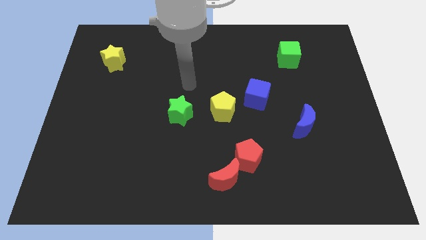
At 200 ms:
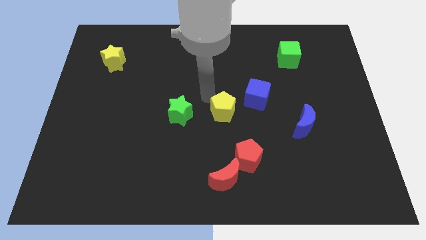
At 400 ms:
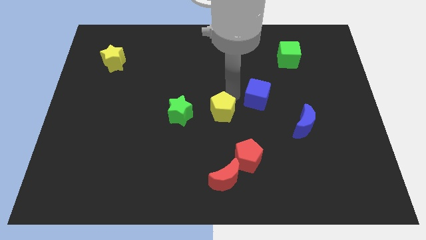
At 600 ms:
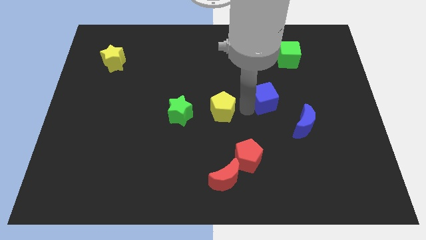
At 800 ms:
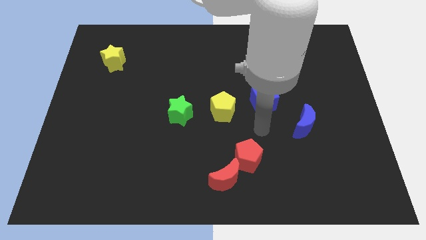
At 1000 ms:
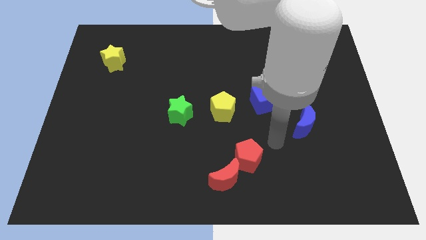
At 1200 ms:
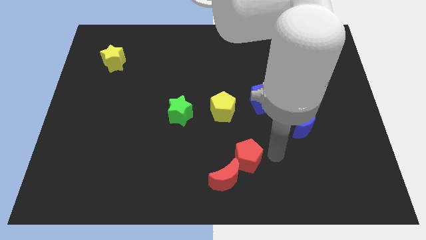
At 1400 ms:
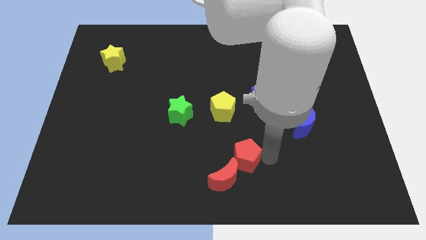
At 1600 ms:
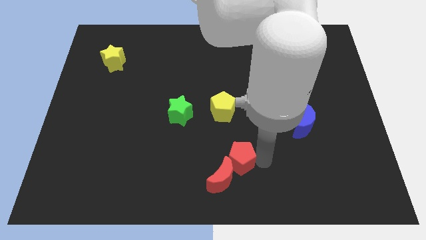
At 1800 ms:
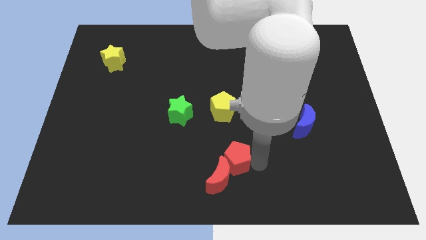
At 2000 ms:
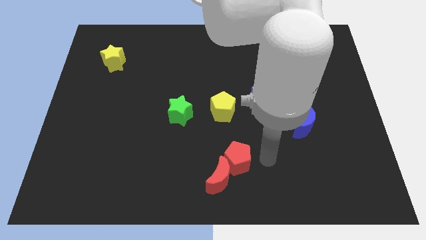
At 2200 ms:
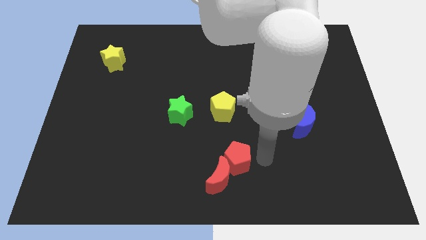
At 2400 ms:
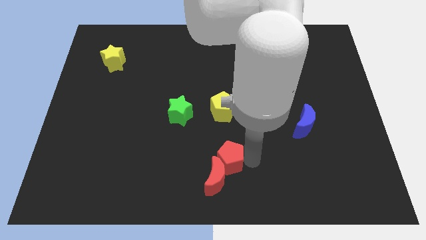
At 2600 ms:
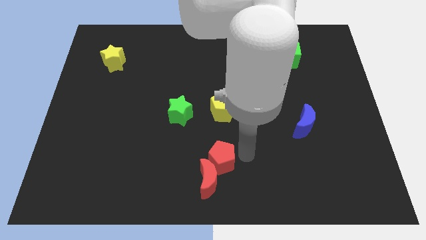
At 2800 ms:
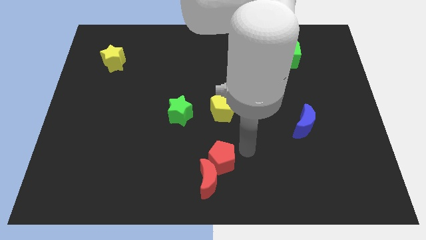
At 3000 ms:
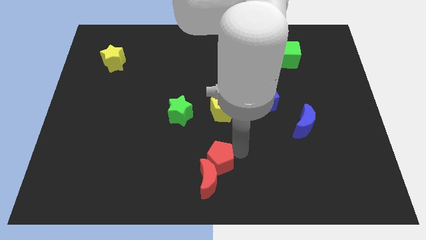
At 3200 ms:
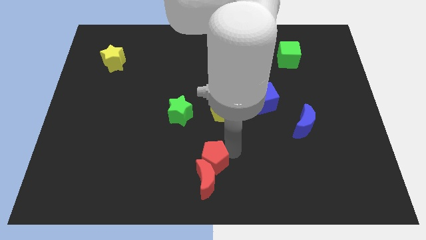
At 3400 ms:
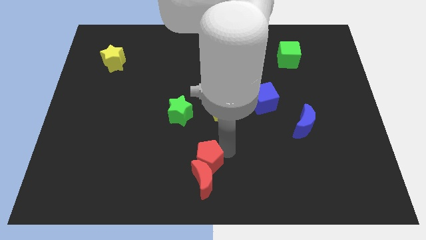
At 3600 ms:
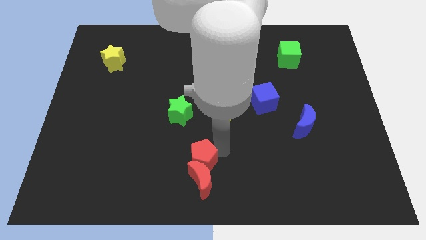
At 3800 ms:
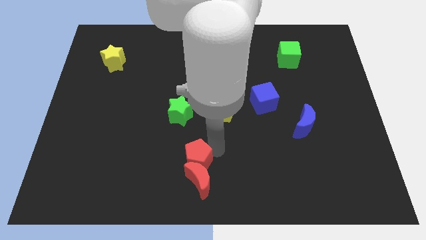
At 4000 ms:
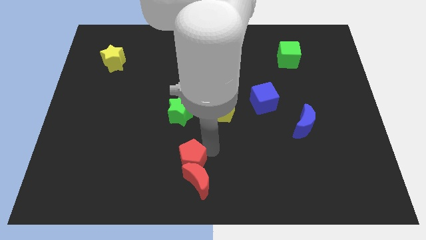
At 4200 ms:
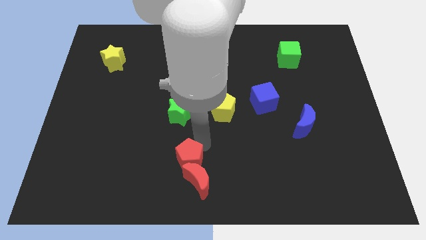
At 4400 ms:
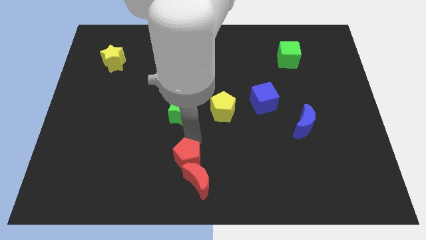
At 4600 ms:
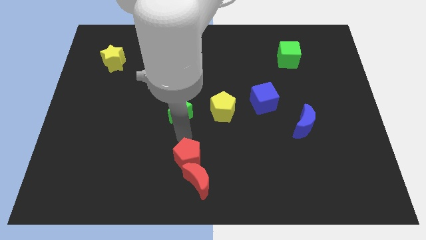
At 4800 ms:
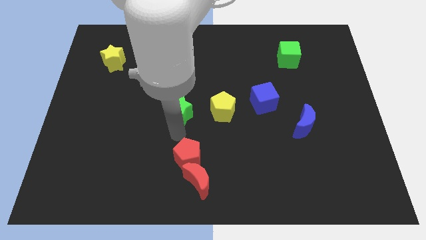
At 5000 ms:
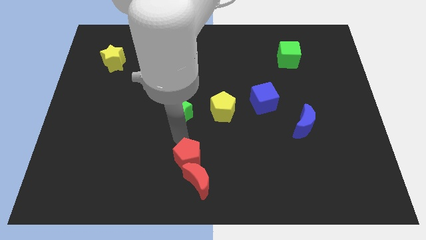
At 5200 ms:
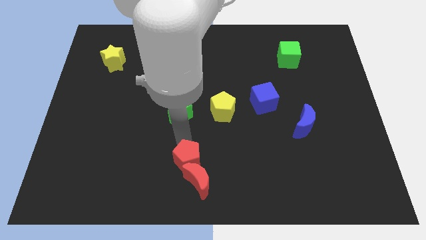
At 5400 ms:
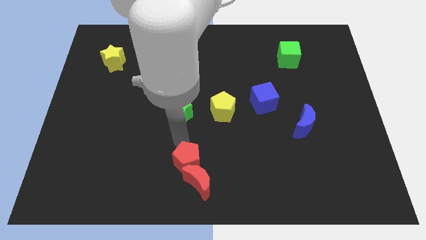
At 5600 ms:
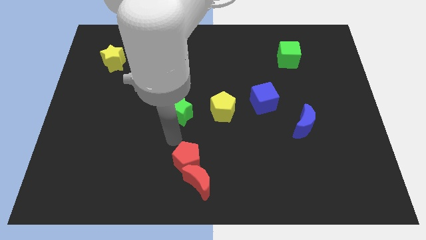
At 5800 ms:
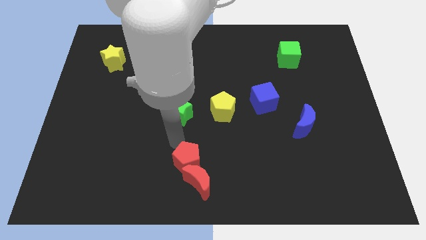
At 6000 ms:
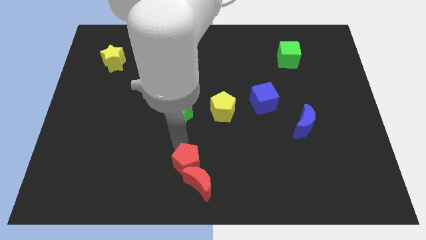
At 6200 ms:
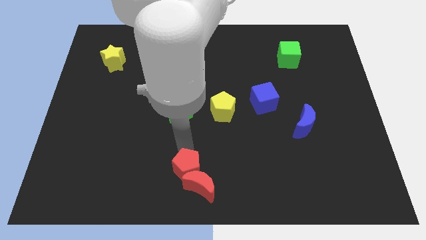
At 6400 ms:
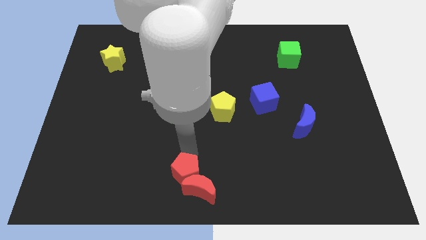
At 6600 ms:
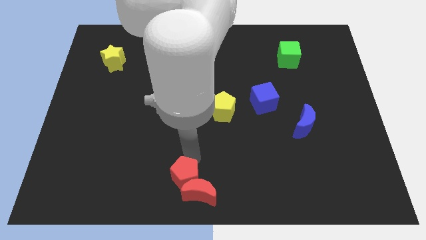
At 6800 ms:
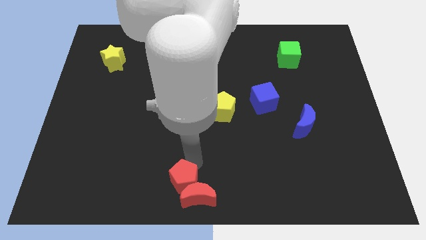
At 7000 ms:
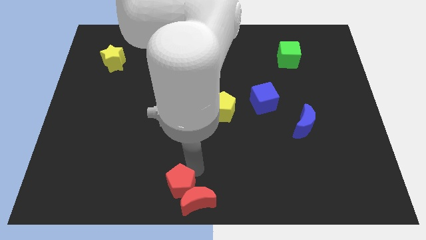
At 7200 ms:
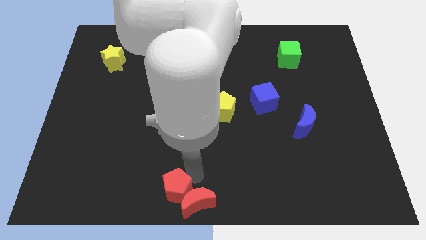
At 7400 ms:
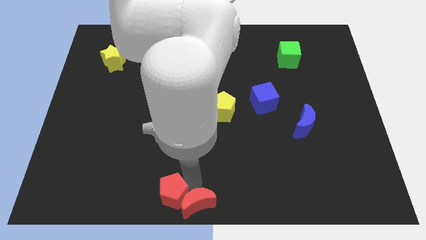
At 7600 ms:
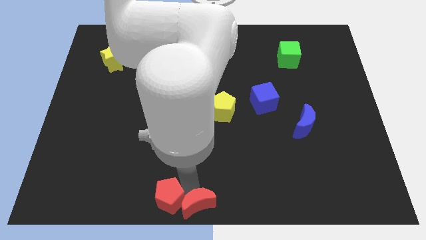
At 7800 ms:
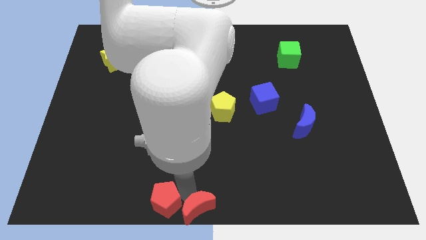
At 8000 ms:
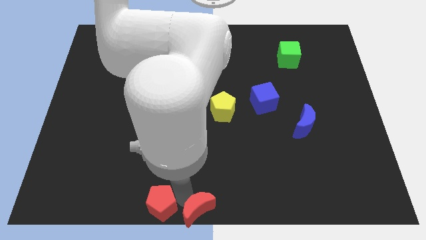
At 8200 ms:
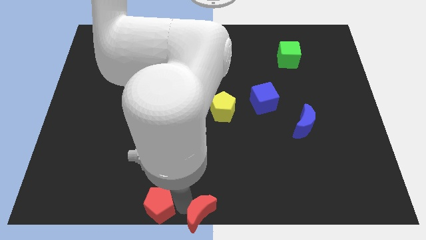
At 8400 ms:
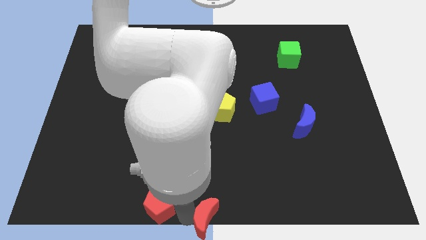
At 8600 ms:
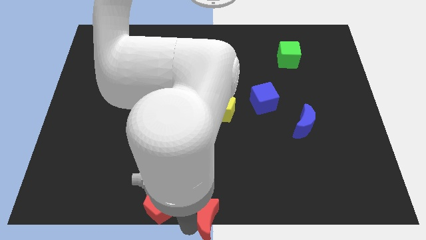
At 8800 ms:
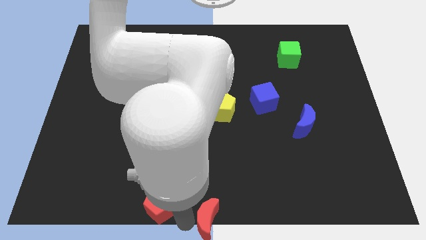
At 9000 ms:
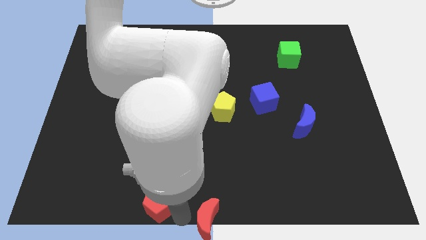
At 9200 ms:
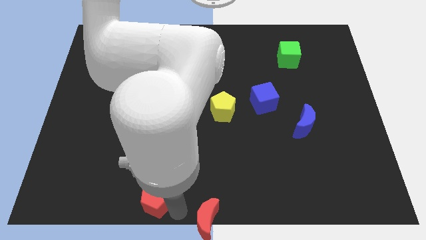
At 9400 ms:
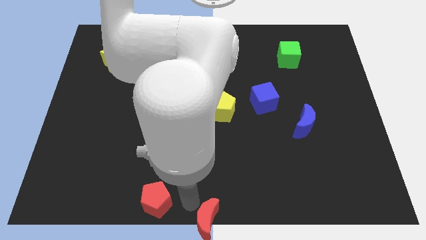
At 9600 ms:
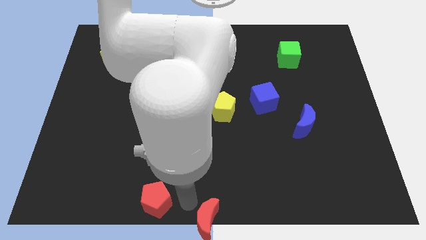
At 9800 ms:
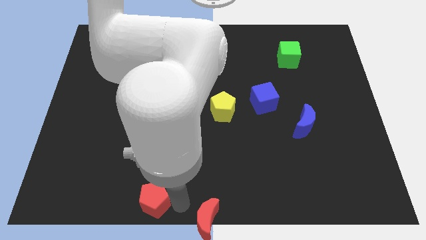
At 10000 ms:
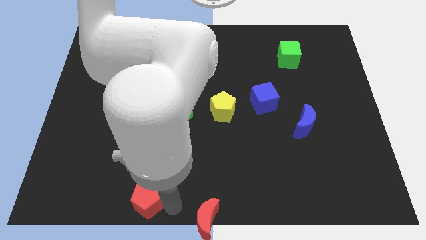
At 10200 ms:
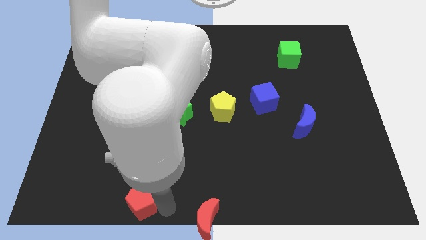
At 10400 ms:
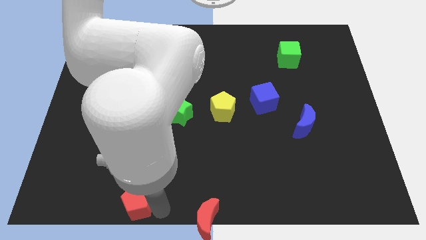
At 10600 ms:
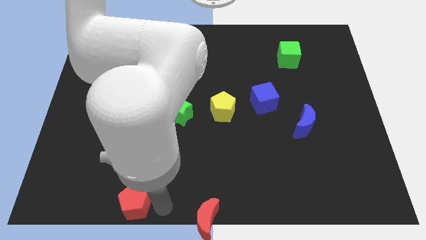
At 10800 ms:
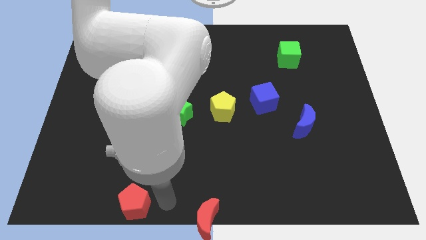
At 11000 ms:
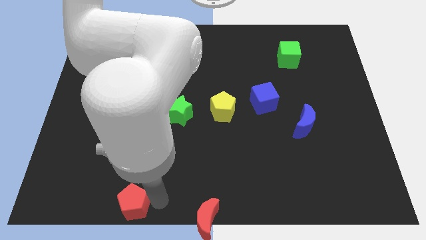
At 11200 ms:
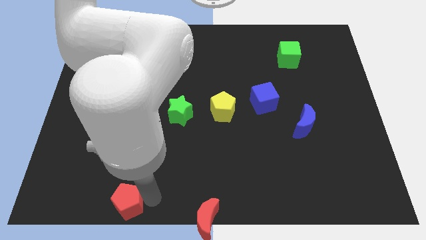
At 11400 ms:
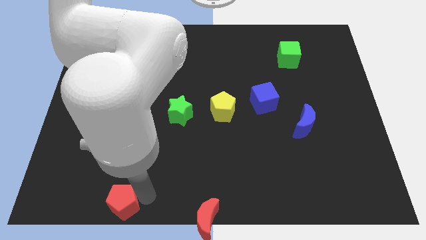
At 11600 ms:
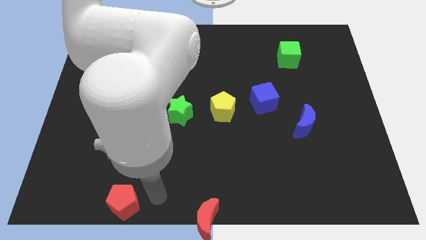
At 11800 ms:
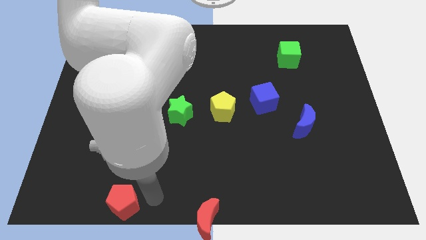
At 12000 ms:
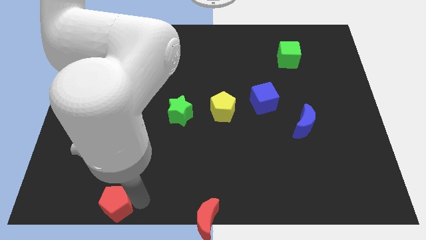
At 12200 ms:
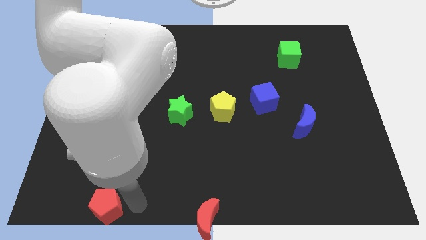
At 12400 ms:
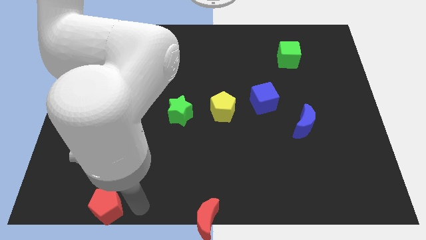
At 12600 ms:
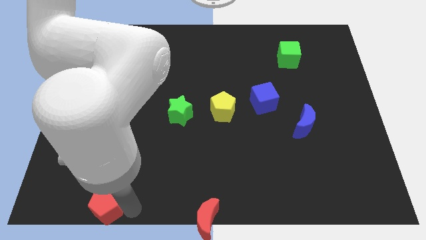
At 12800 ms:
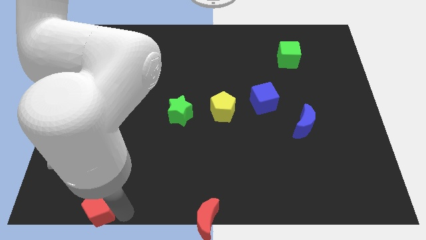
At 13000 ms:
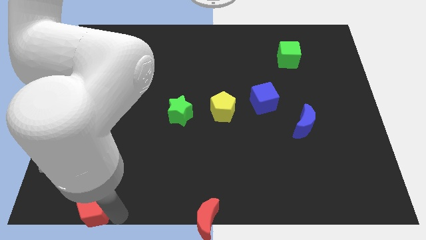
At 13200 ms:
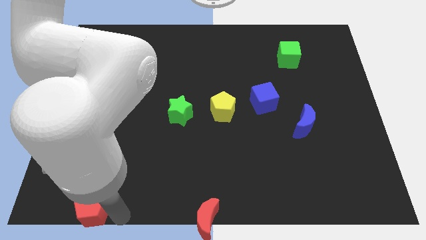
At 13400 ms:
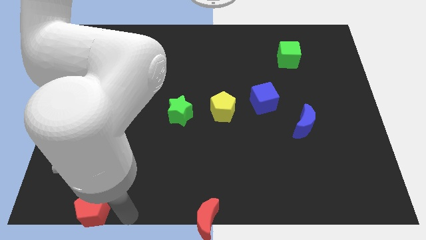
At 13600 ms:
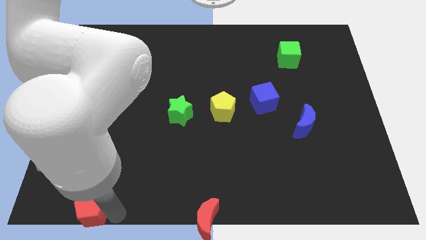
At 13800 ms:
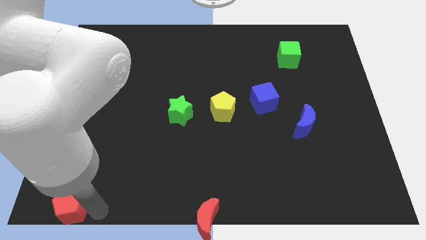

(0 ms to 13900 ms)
push the red pentagon to the bottom left corner
